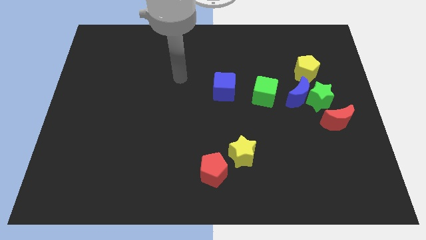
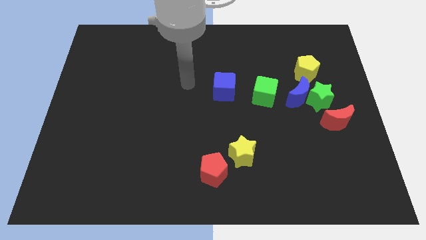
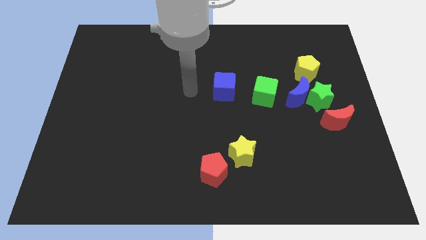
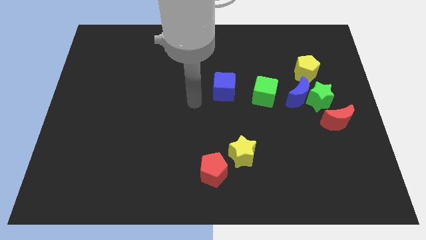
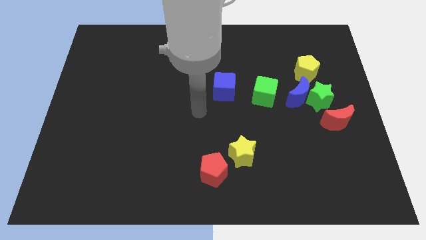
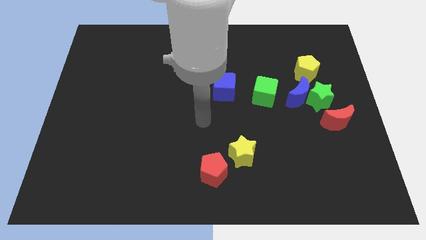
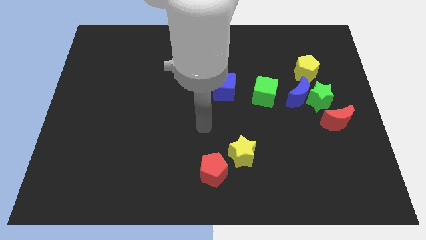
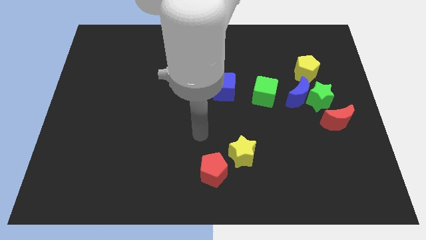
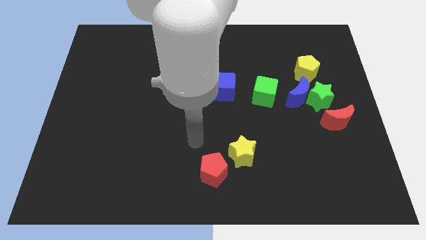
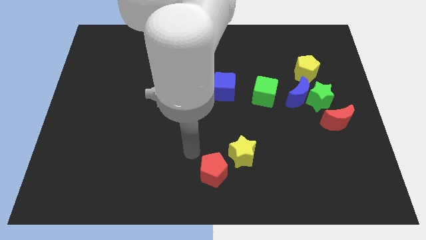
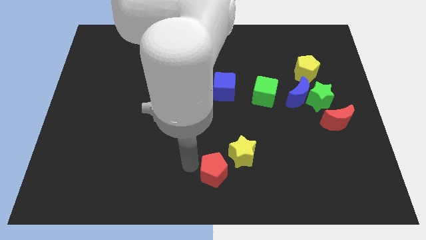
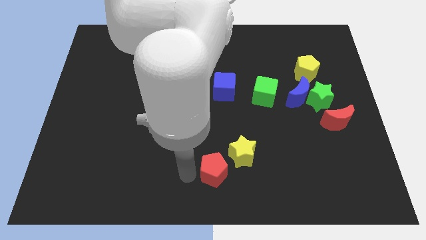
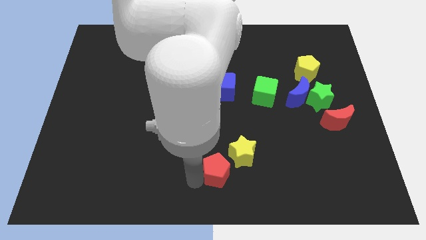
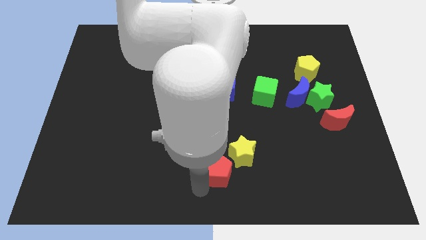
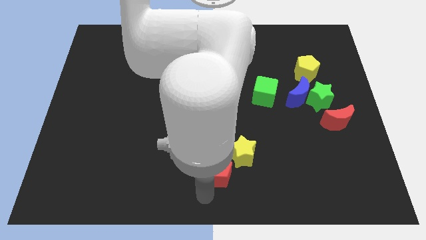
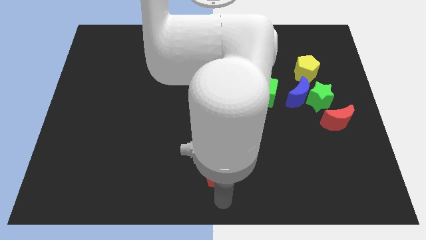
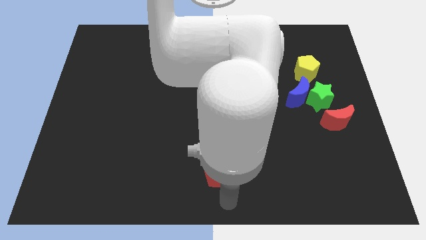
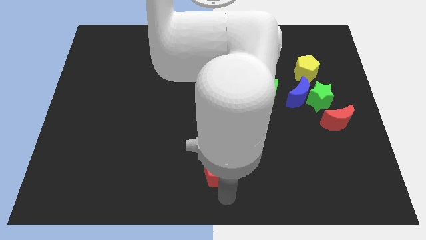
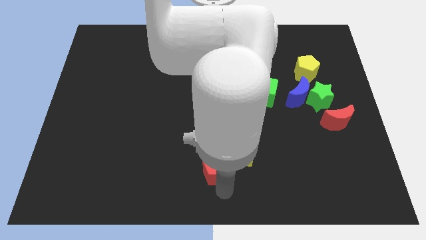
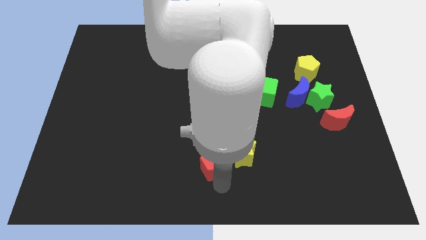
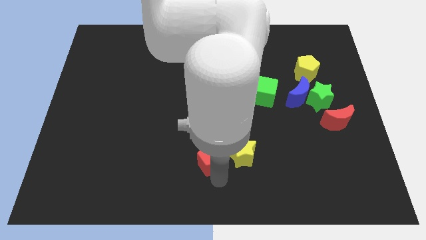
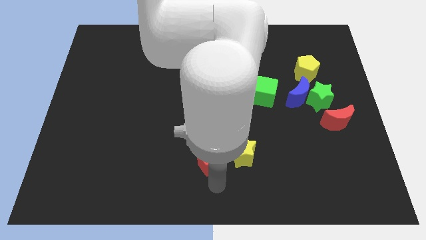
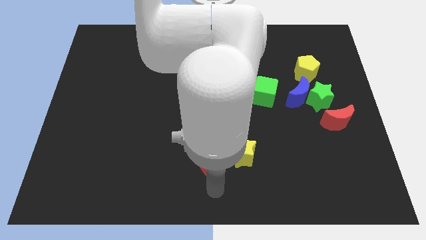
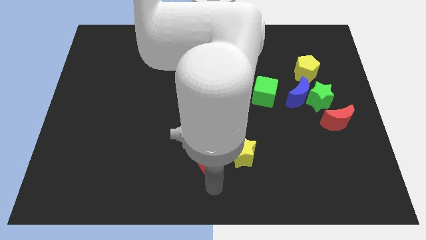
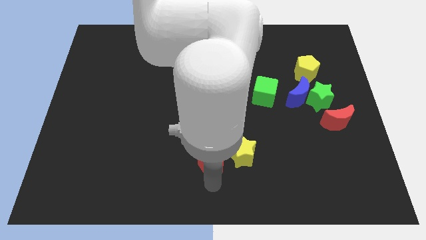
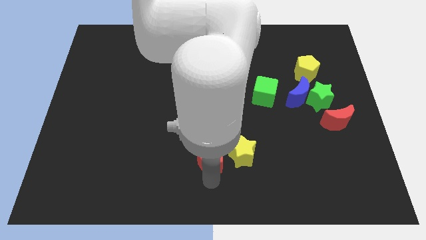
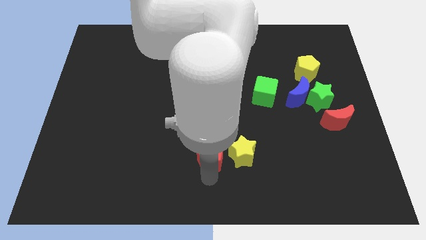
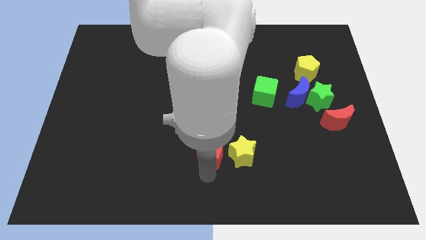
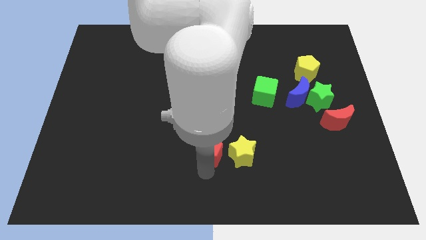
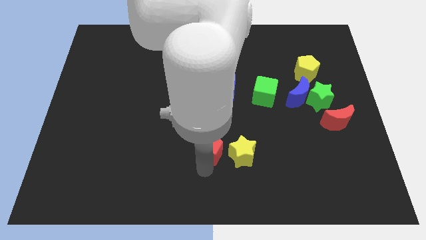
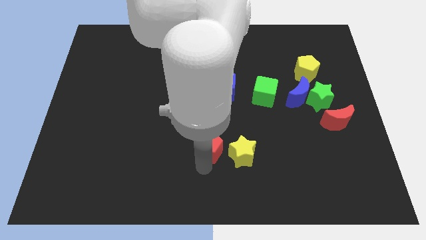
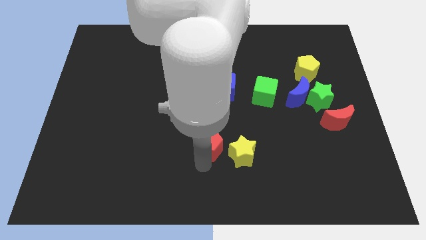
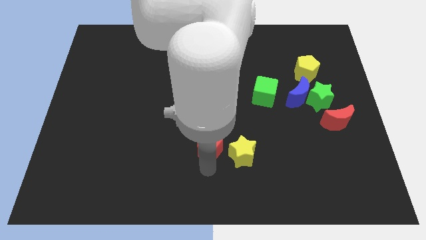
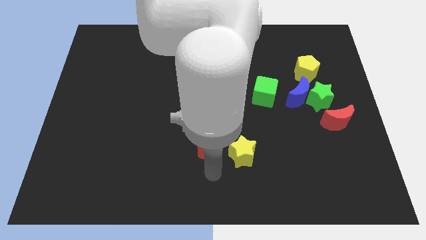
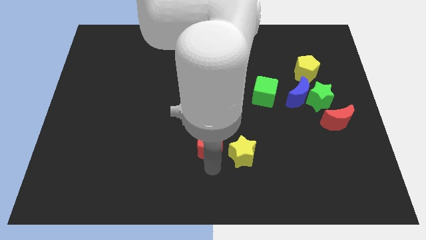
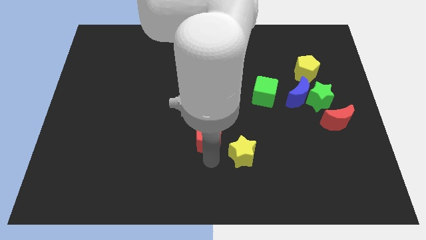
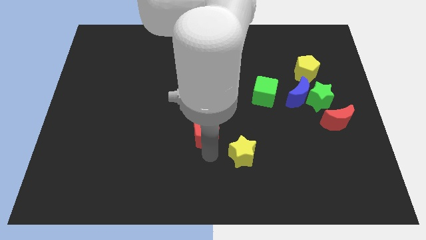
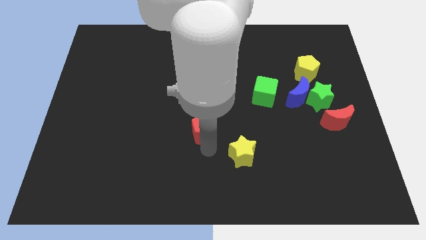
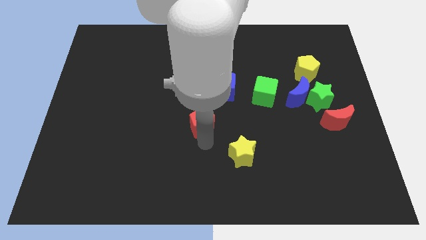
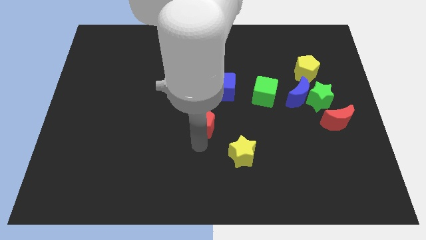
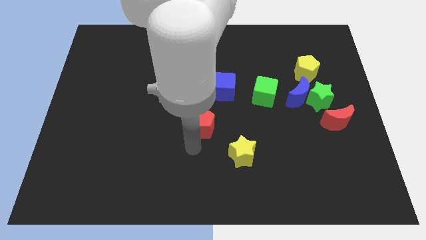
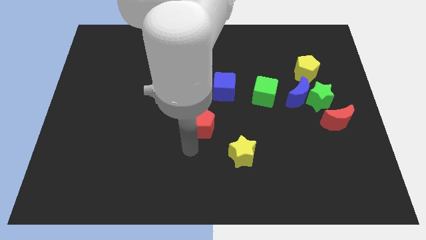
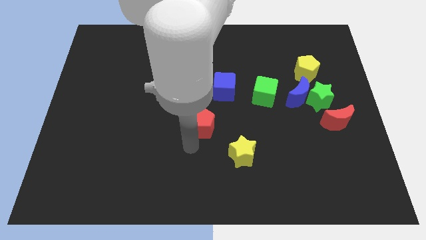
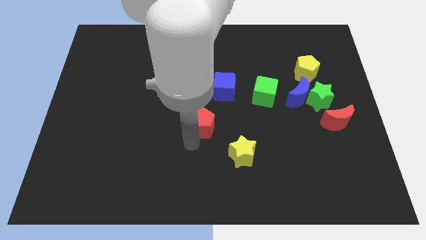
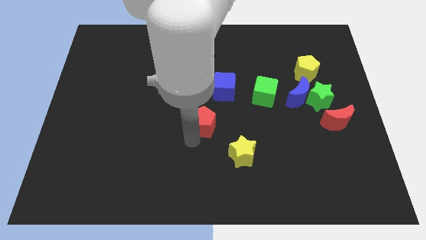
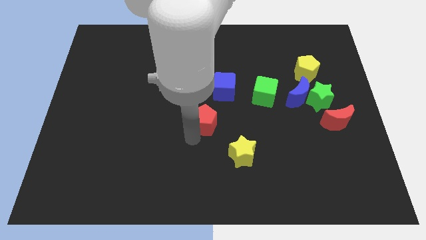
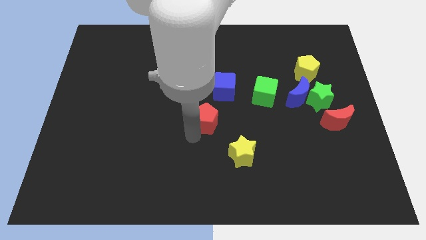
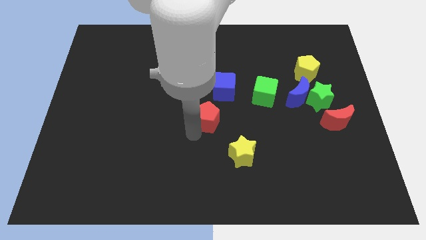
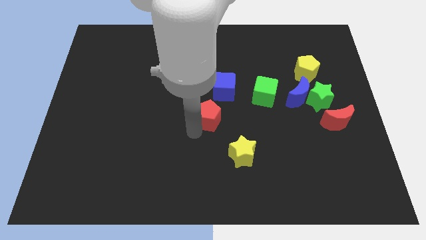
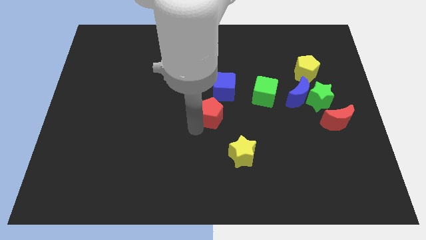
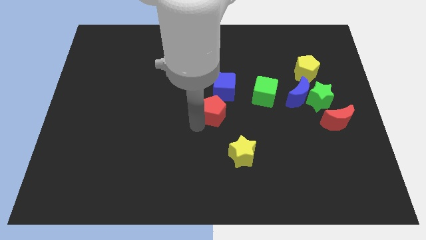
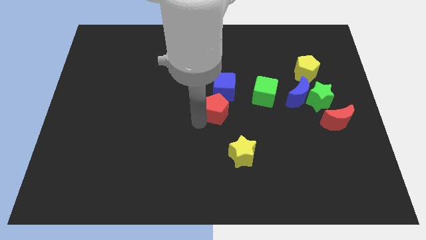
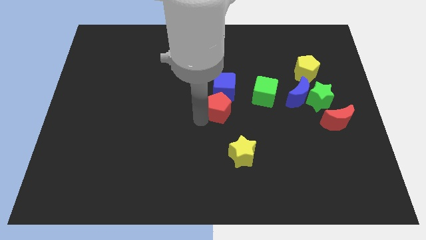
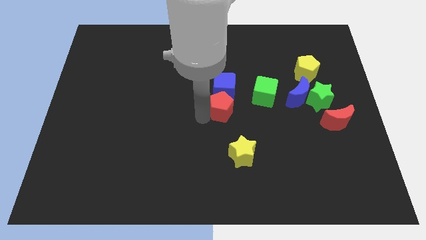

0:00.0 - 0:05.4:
push the red pentagon close to the blue cube

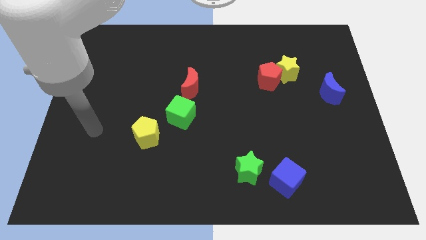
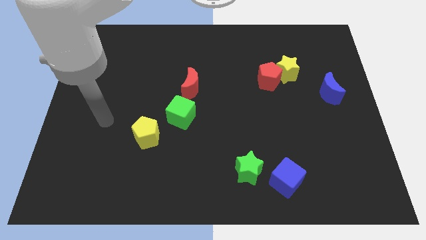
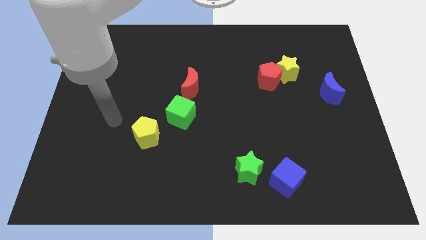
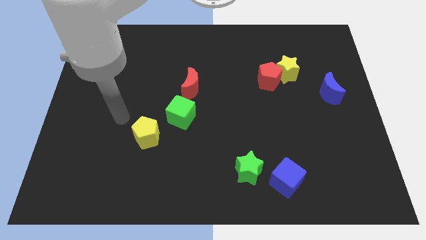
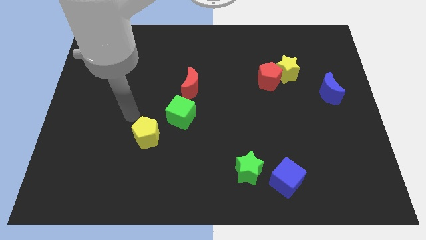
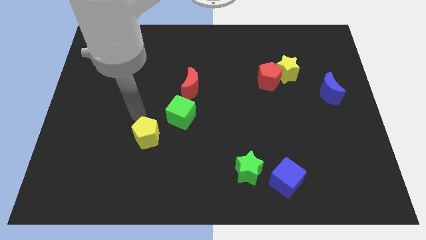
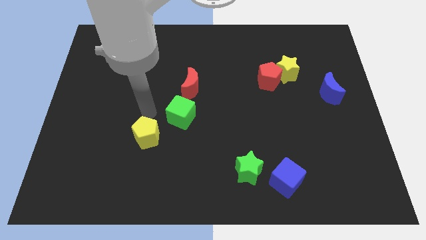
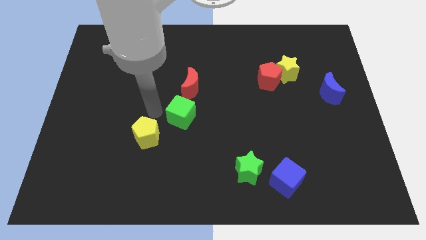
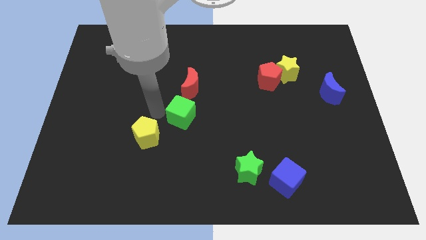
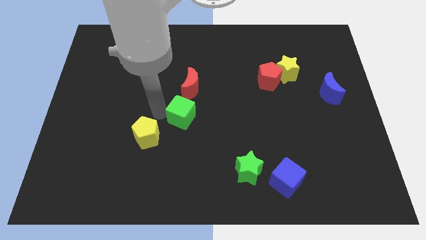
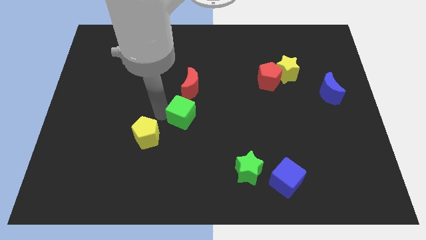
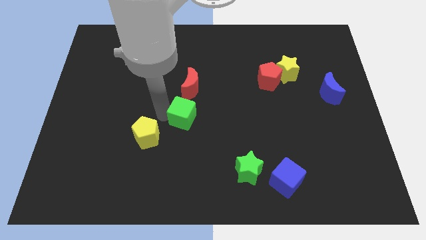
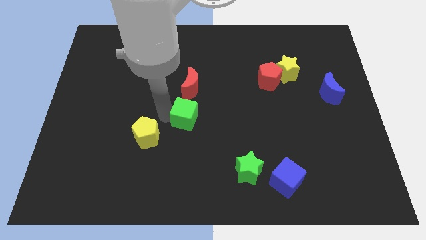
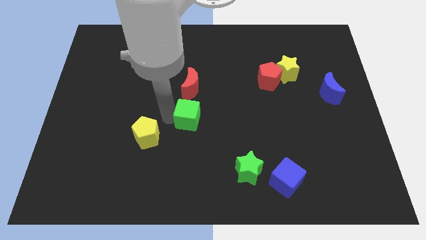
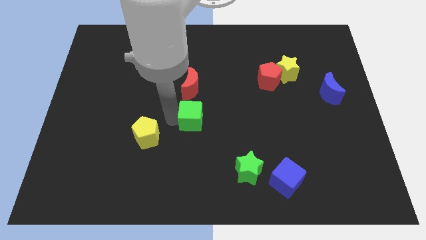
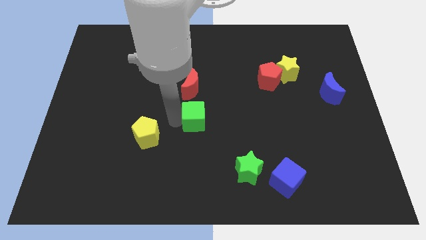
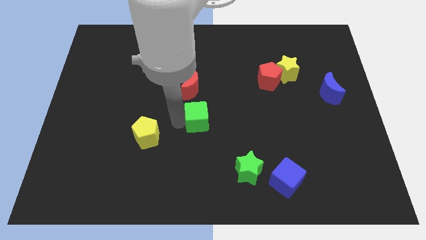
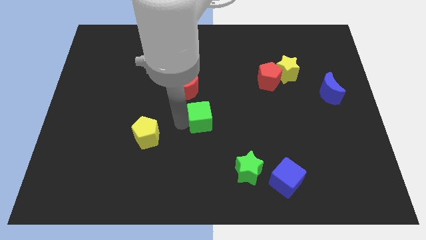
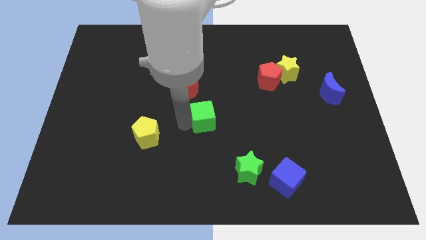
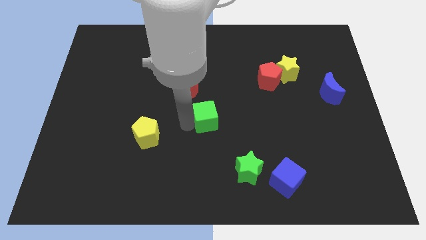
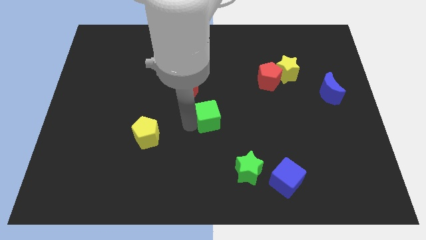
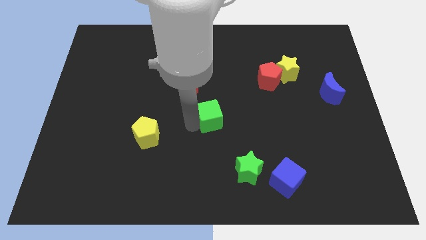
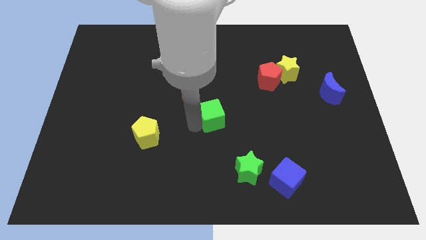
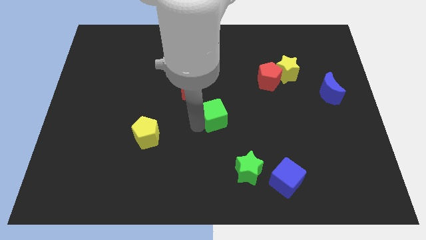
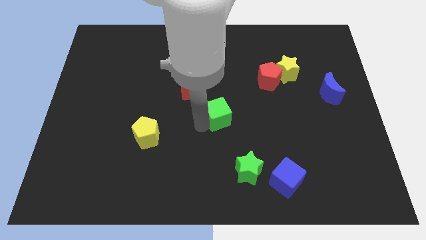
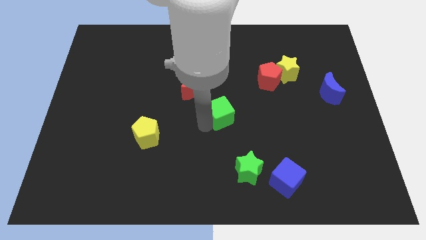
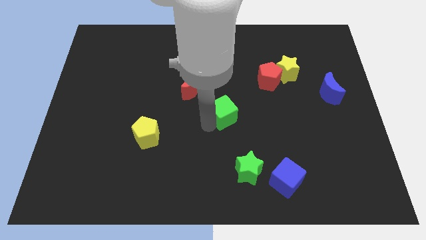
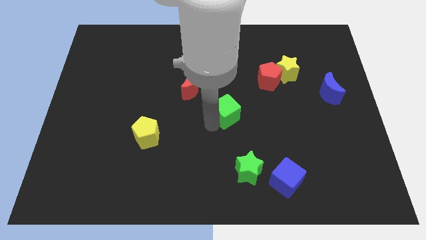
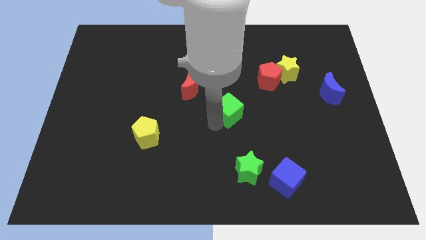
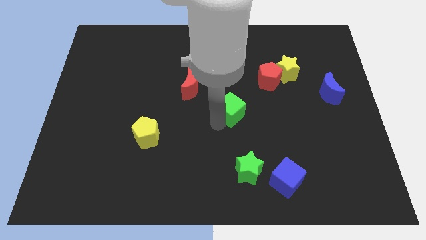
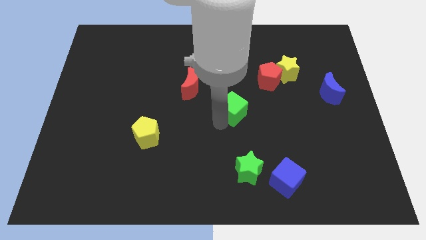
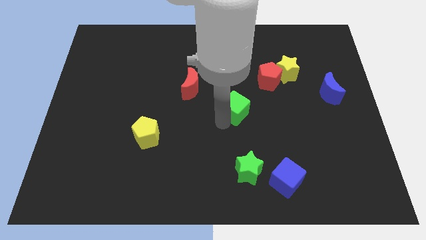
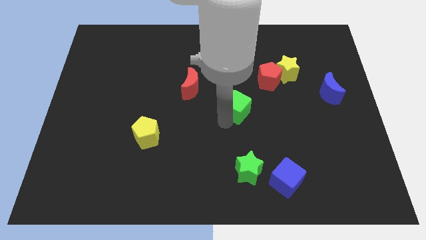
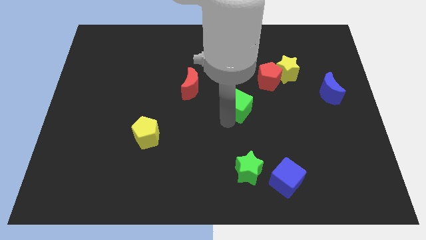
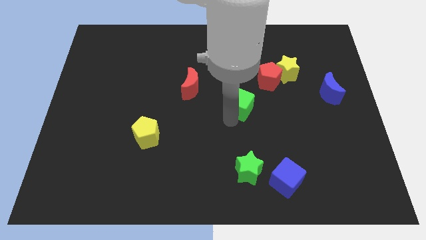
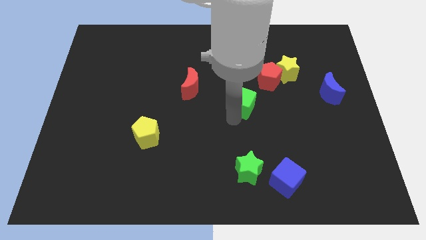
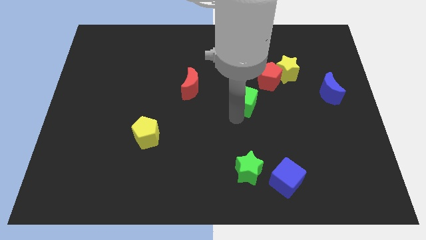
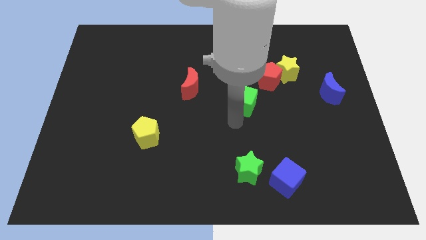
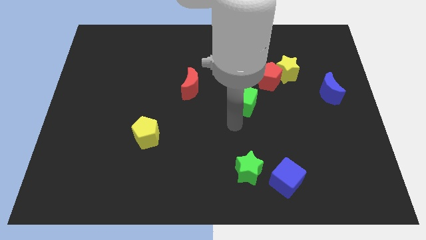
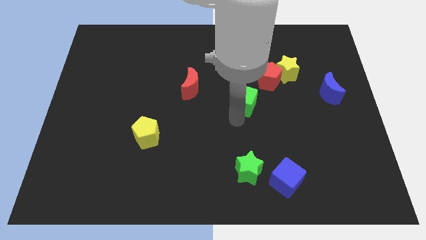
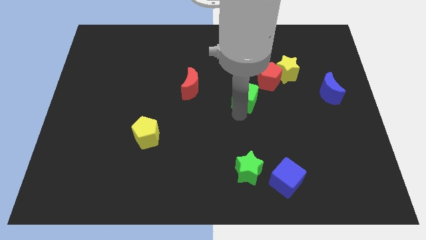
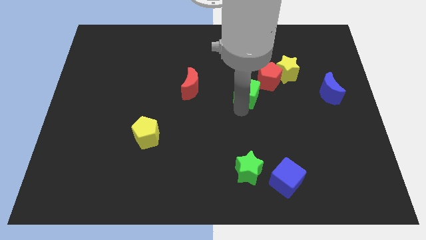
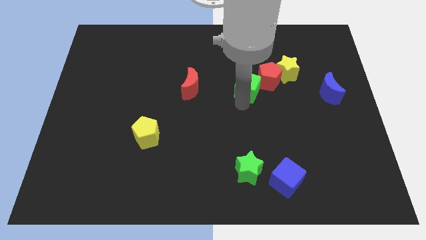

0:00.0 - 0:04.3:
put the green cube next to the red pentagon
